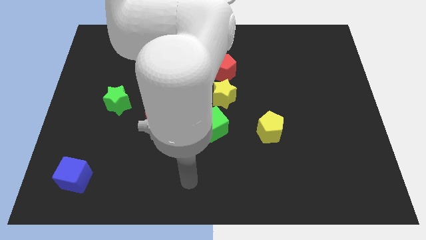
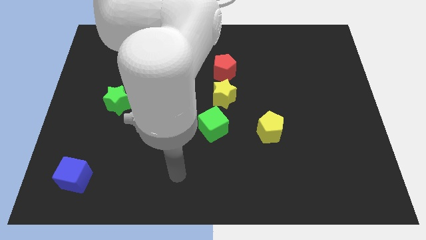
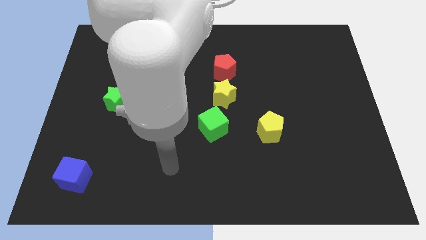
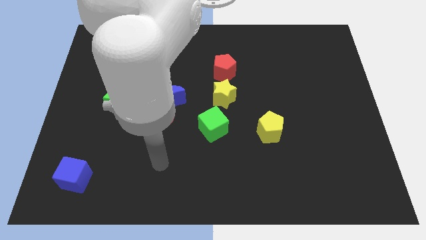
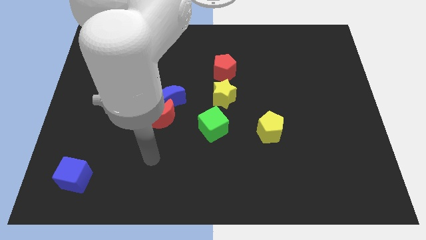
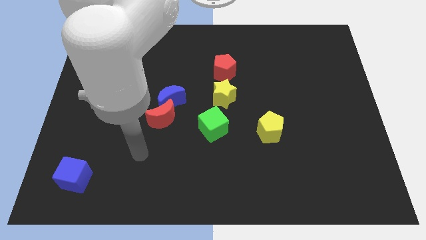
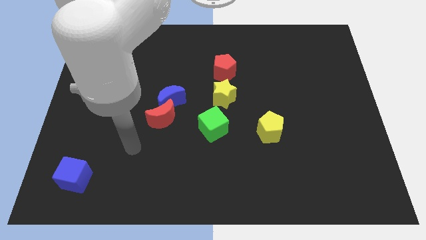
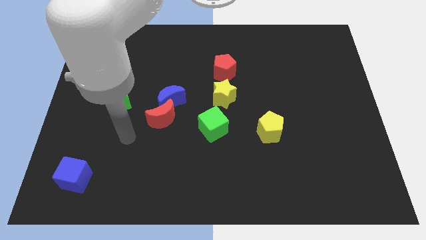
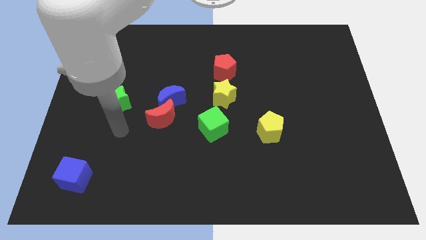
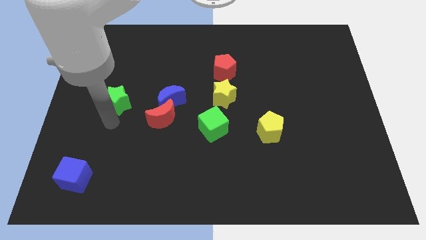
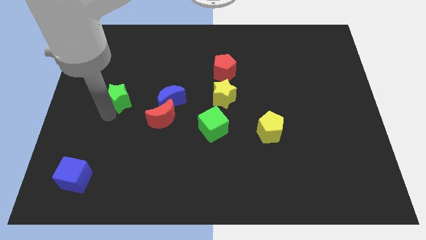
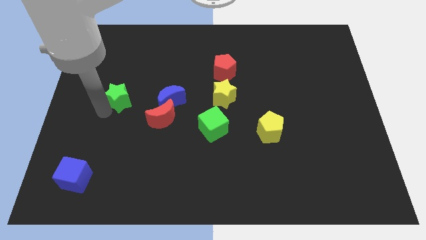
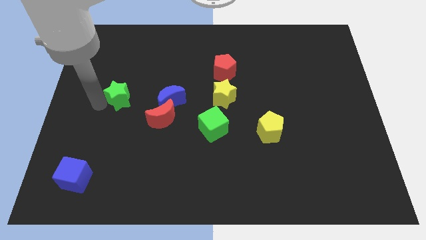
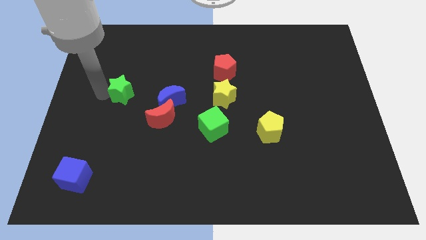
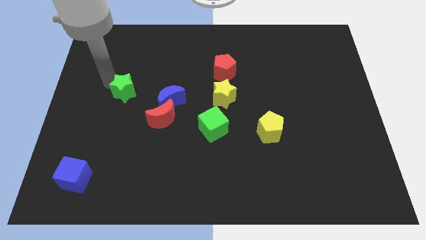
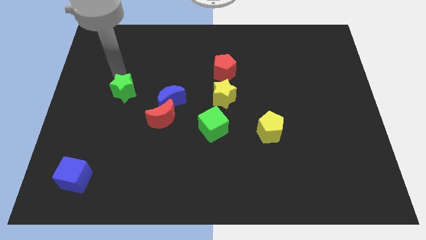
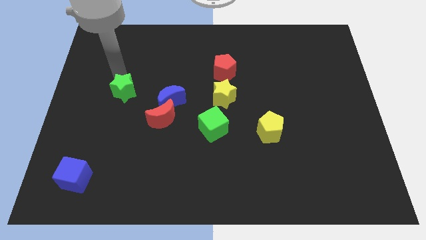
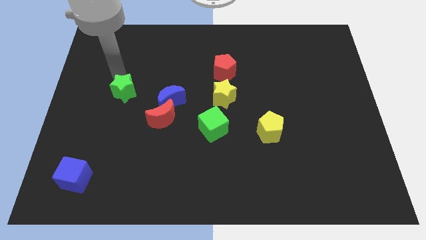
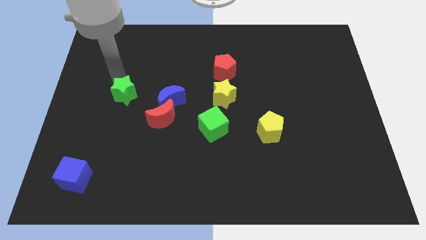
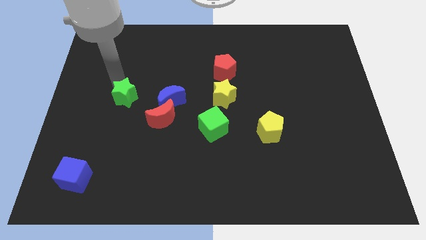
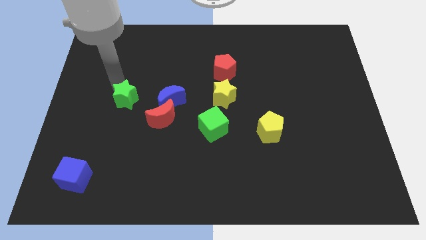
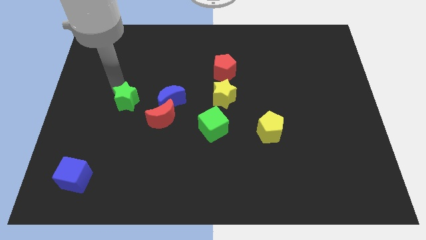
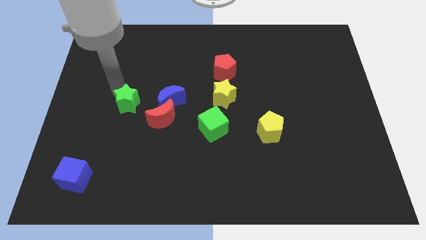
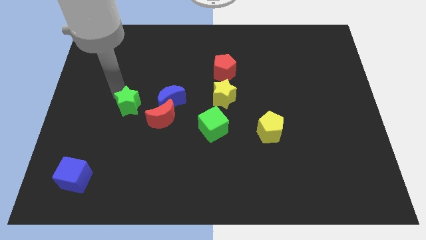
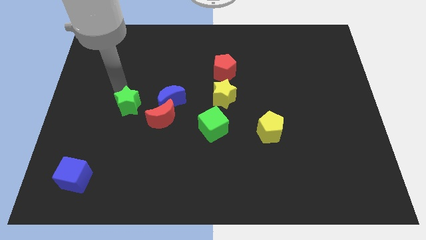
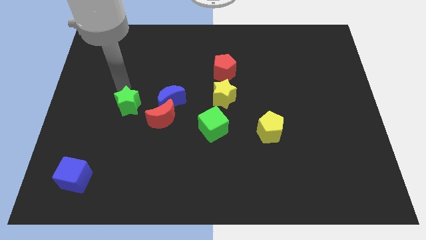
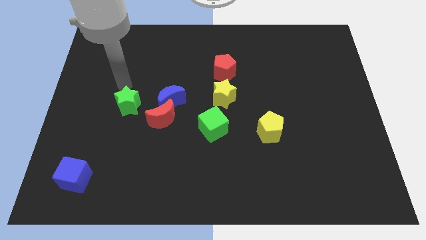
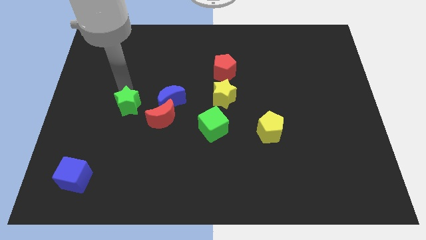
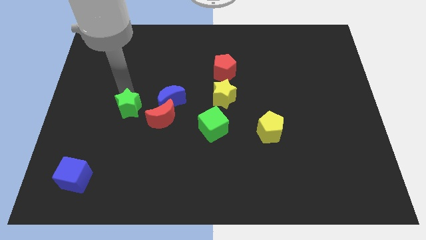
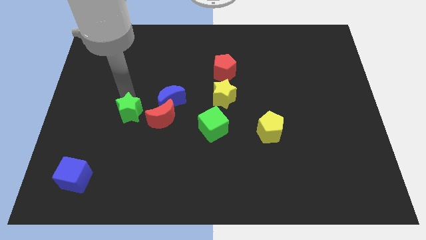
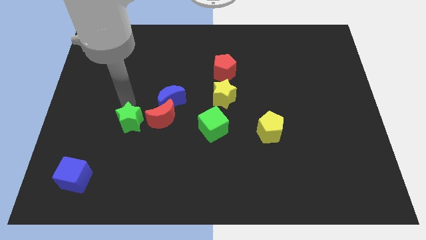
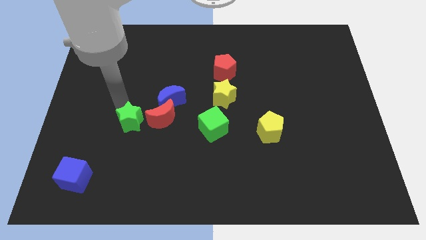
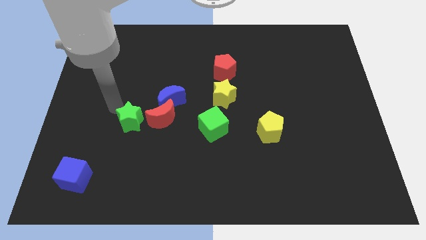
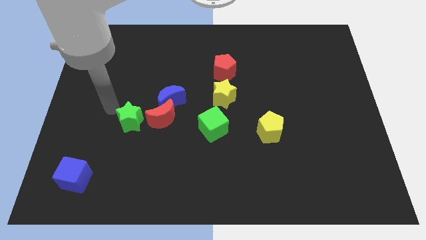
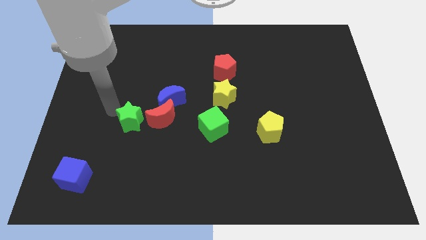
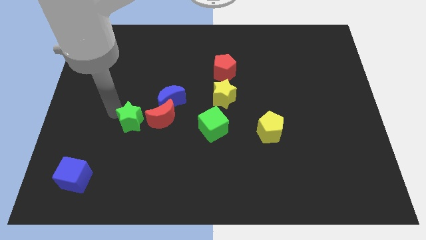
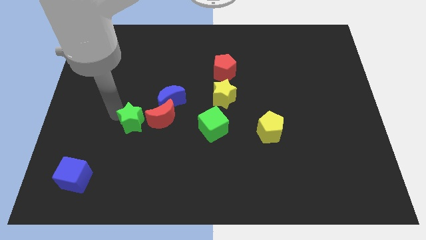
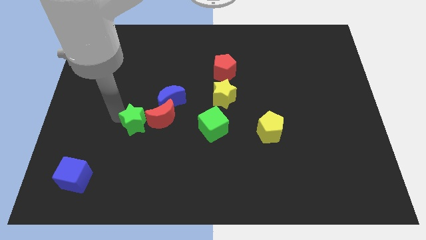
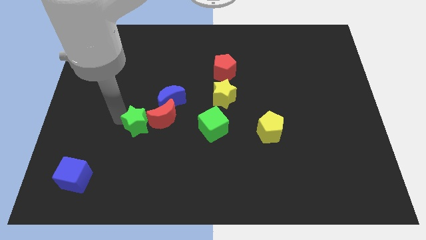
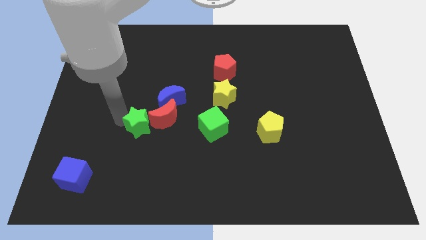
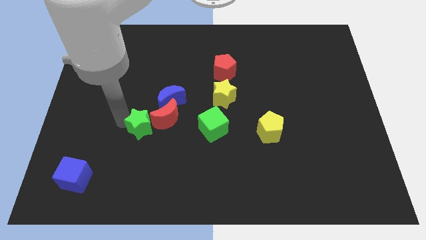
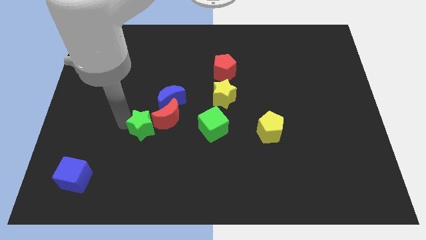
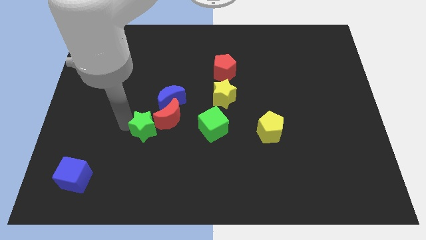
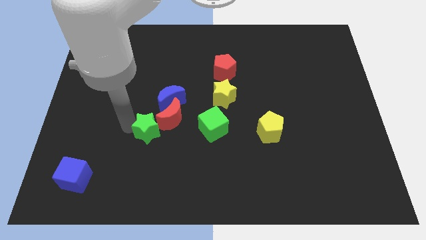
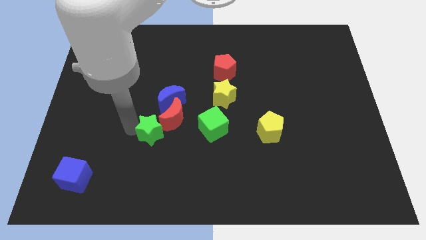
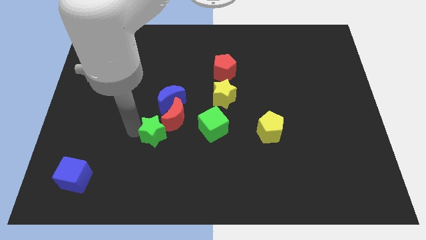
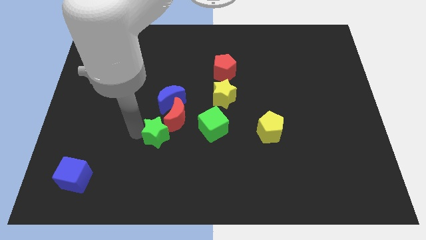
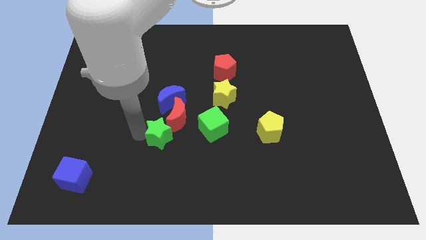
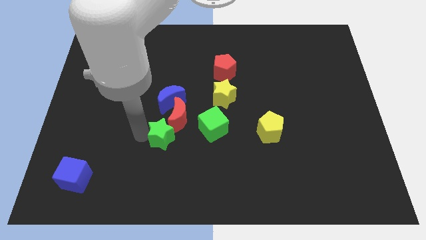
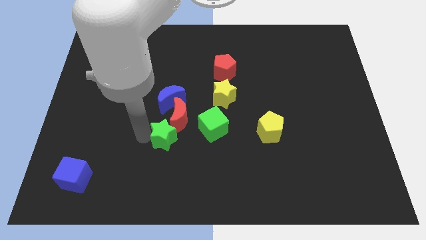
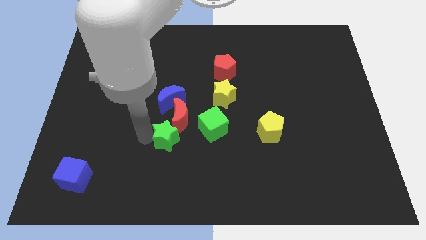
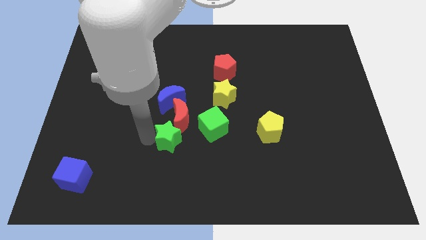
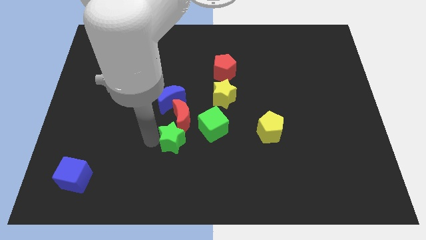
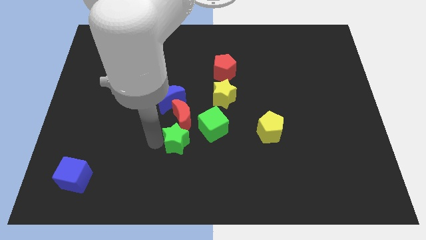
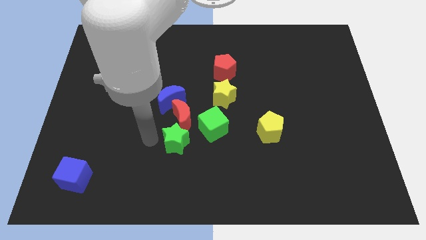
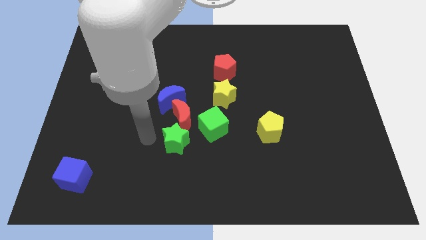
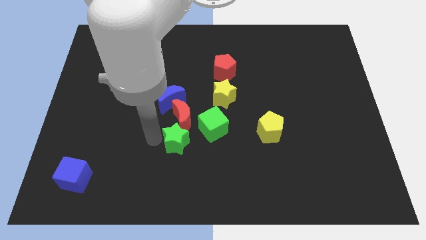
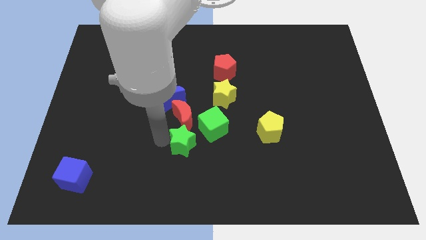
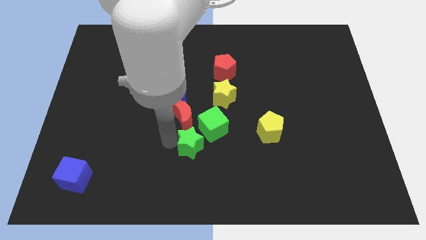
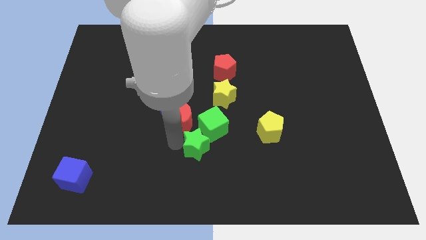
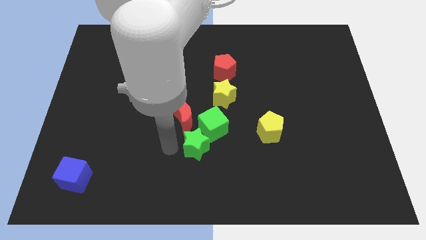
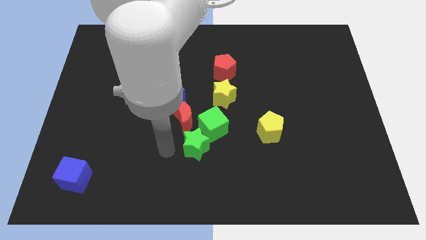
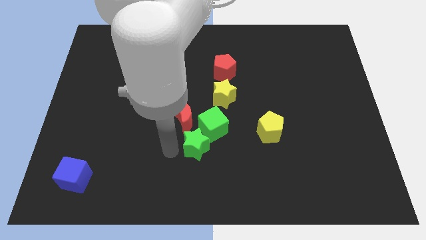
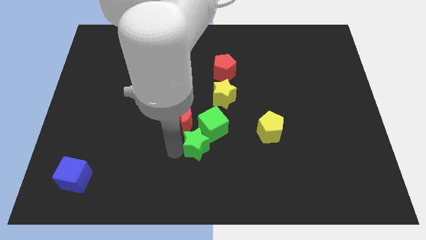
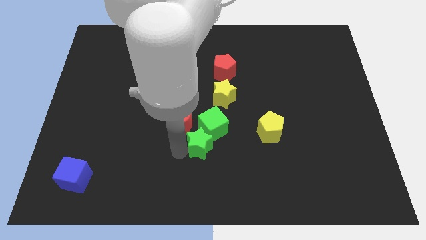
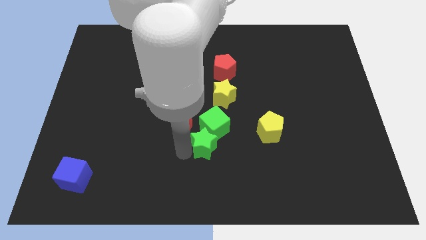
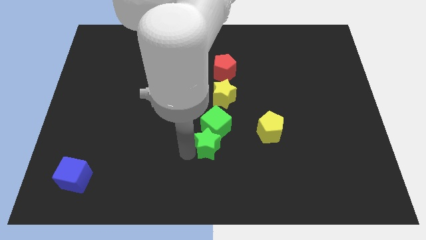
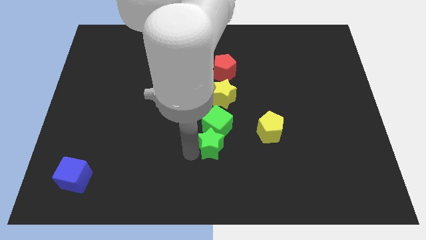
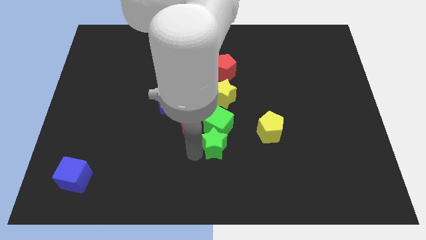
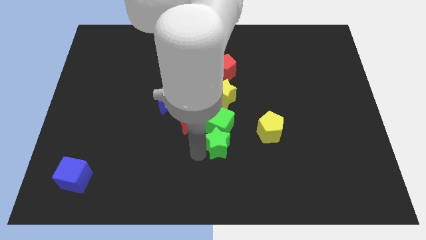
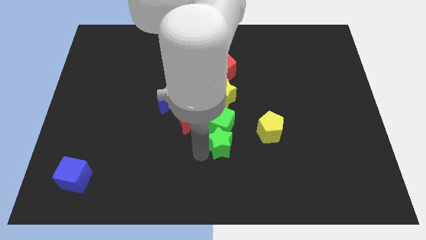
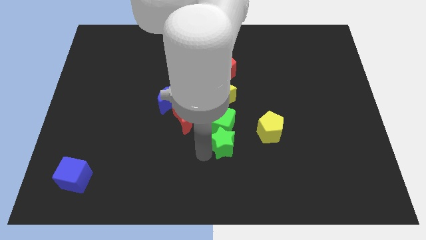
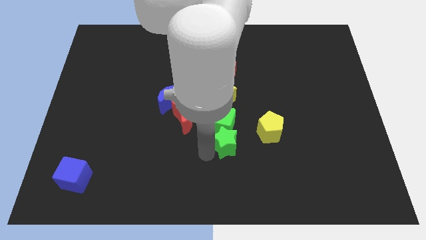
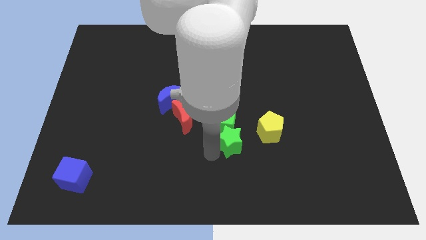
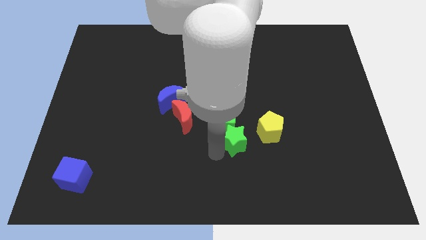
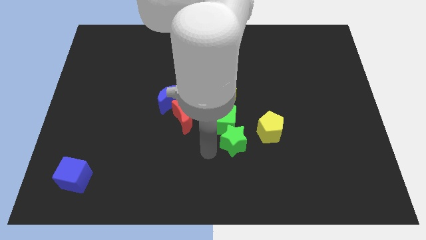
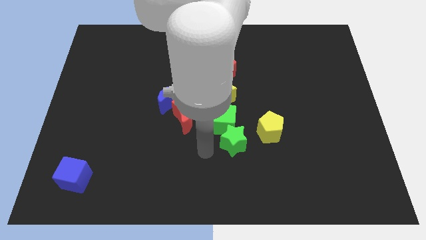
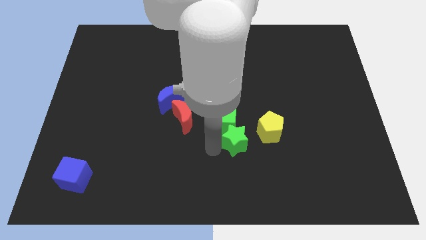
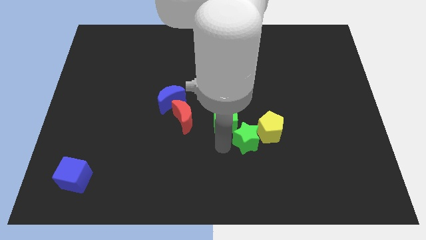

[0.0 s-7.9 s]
put the green star to the yellow pentagon
